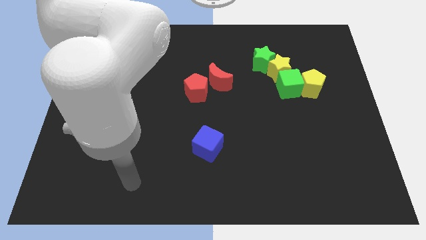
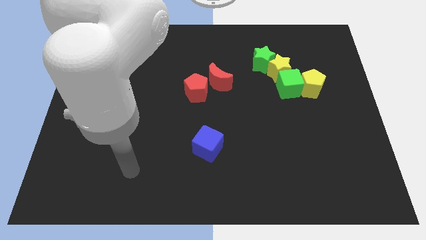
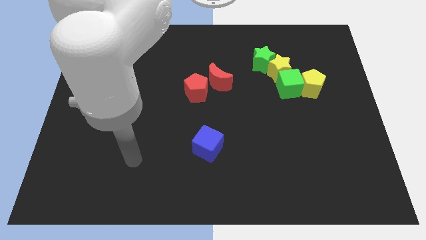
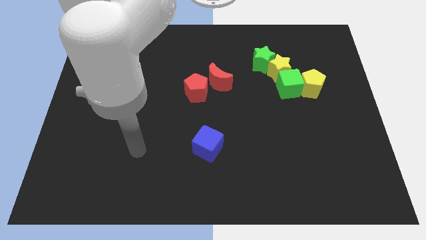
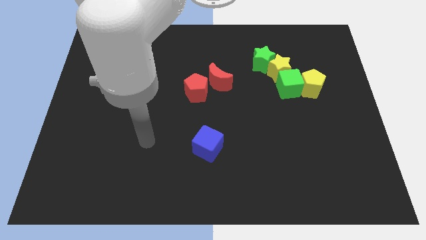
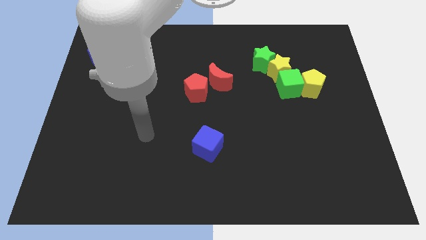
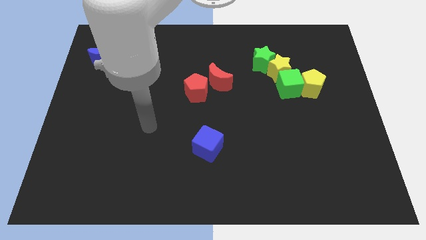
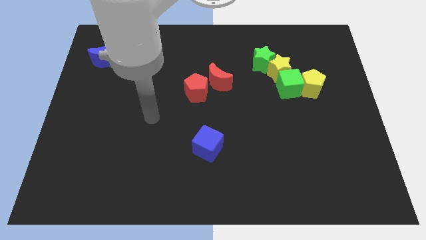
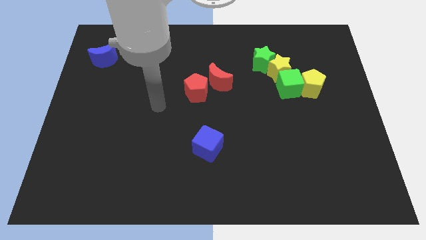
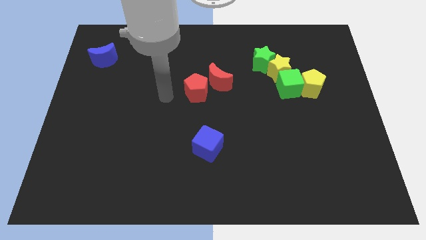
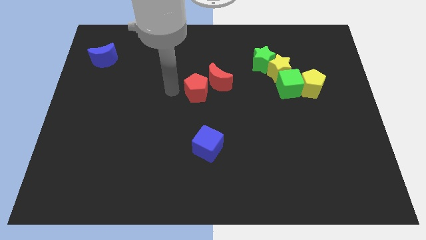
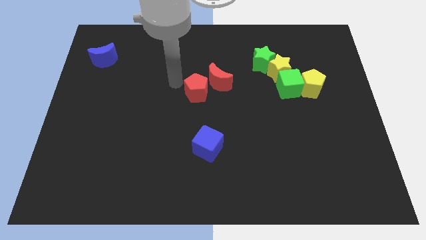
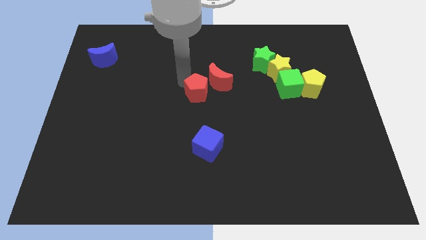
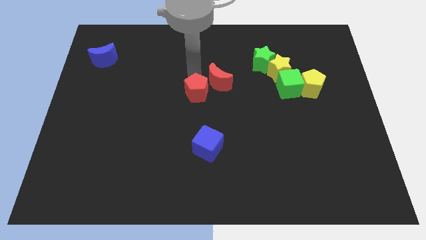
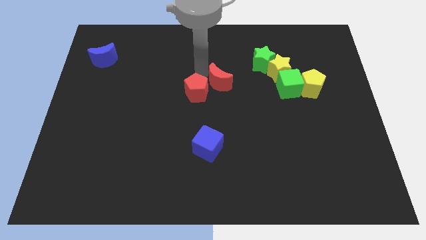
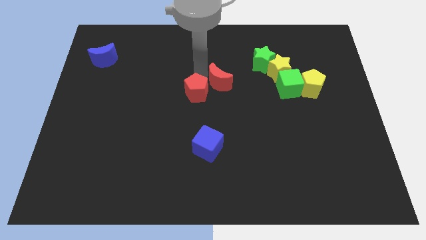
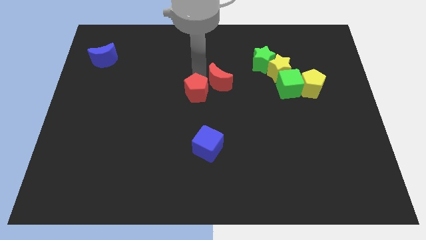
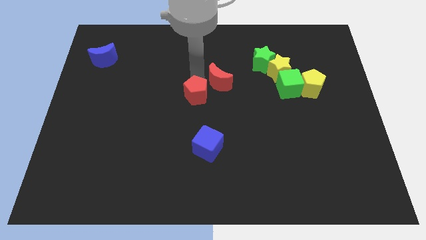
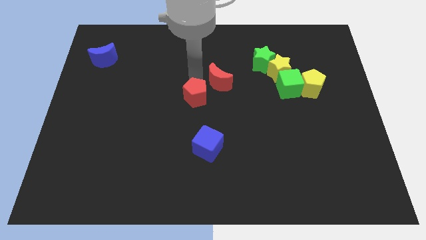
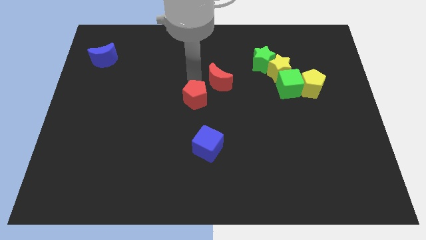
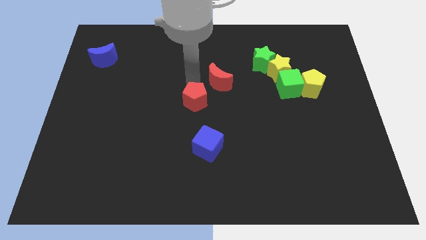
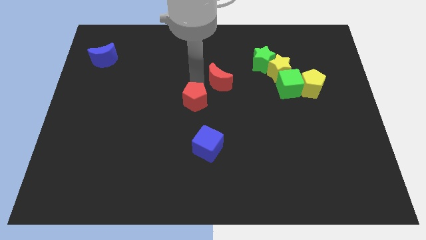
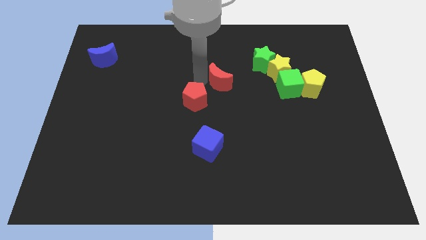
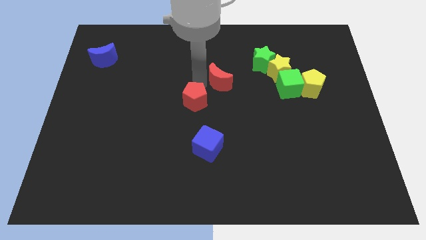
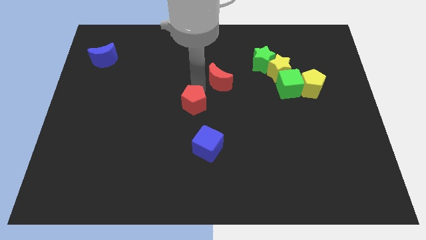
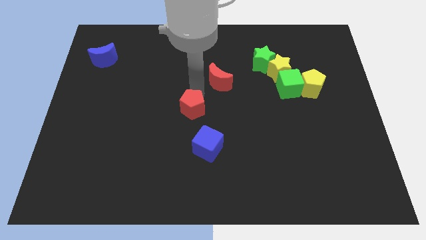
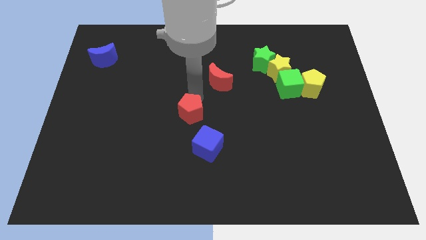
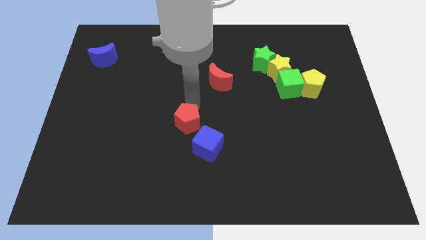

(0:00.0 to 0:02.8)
slightly push the red pentagon down

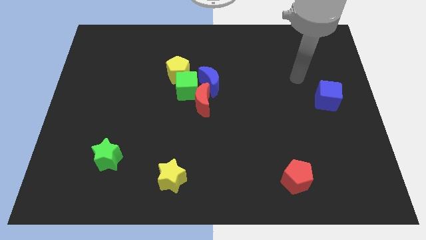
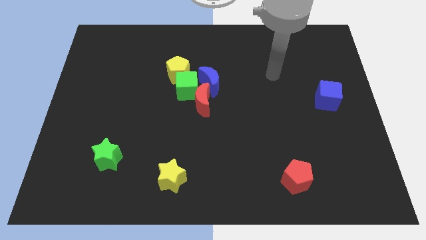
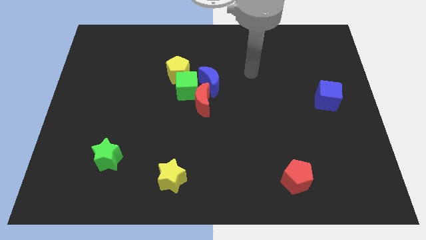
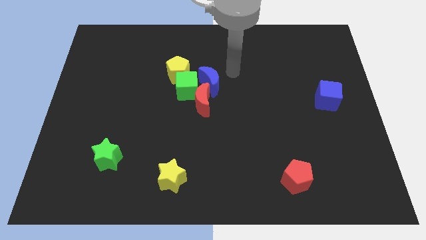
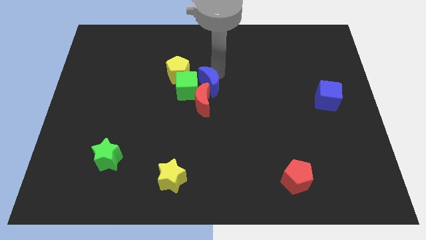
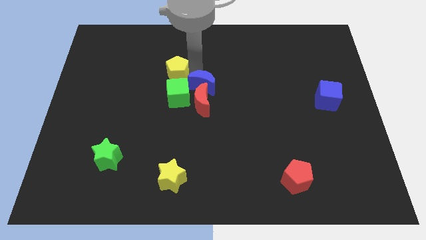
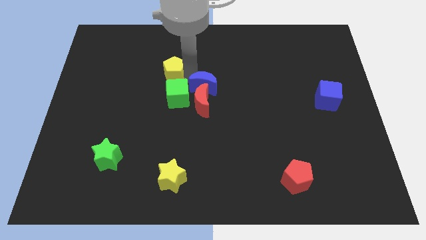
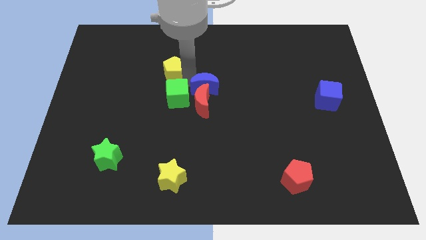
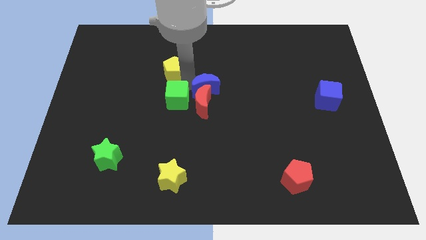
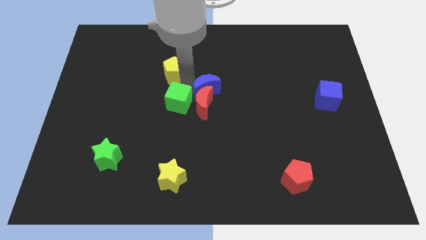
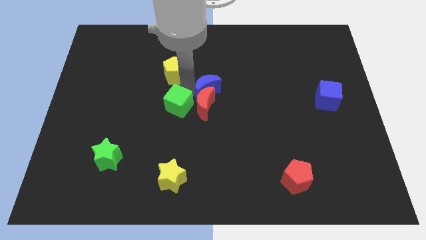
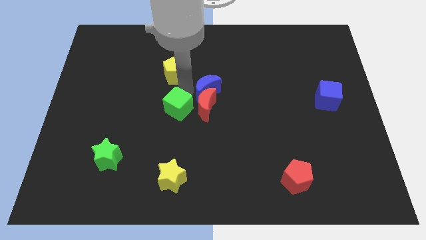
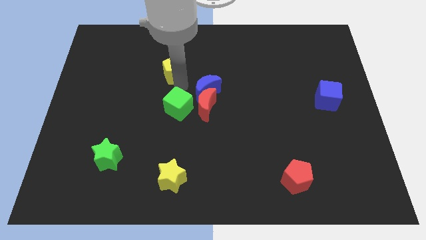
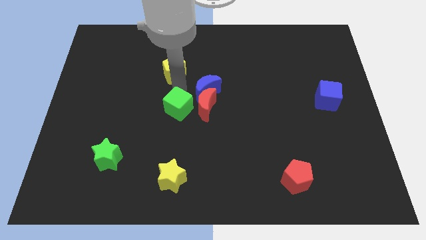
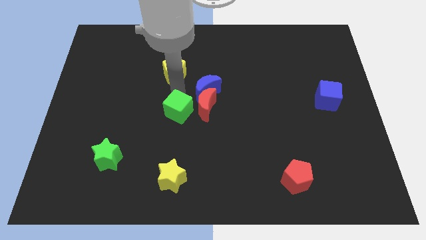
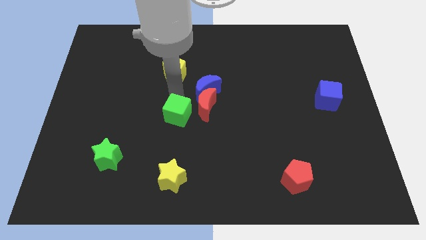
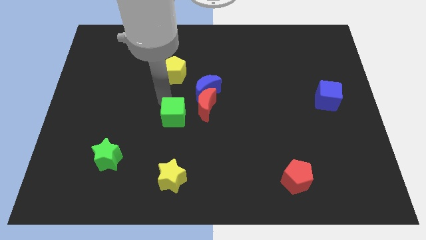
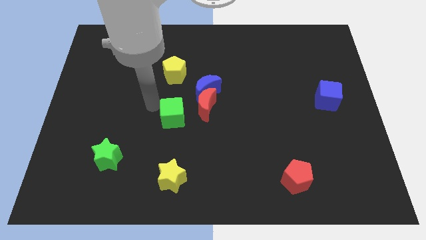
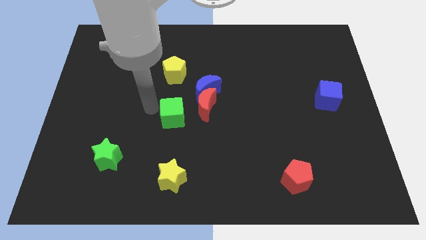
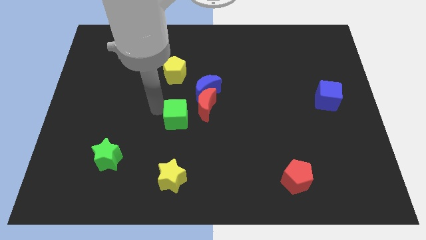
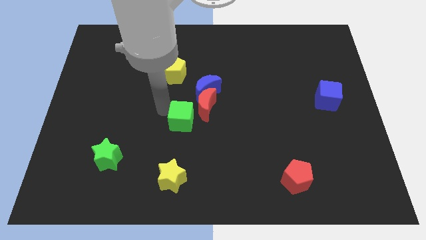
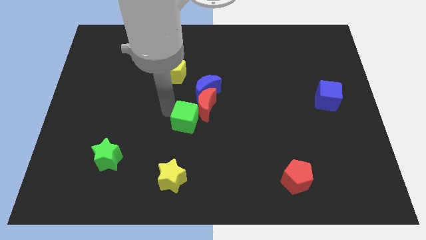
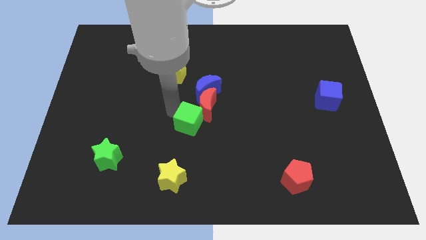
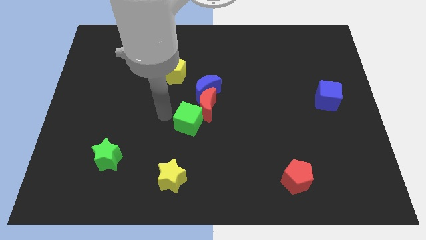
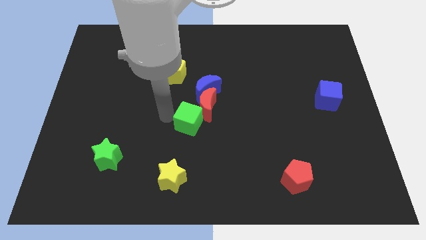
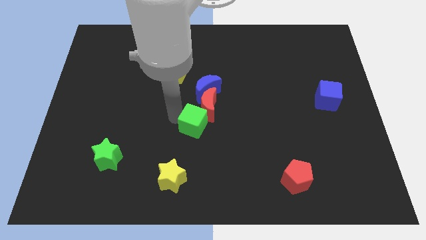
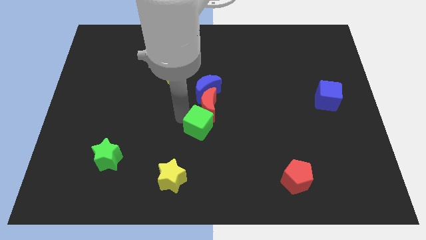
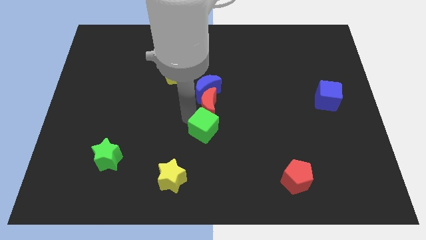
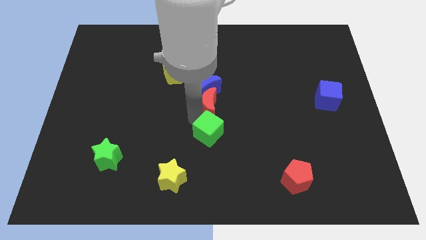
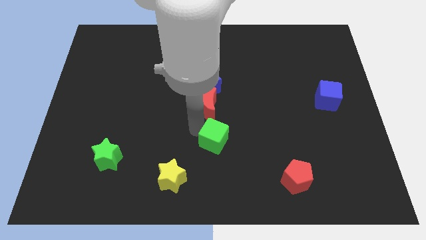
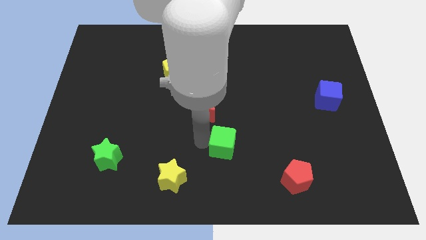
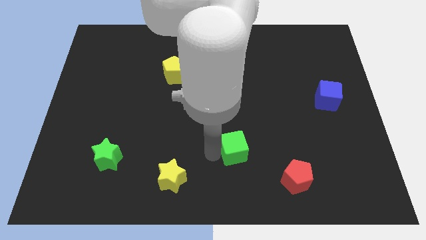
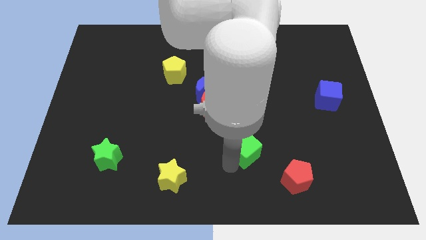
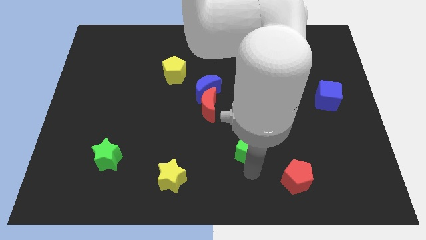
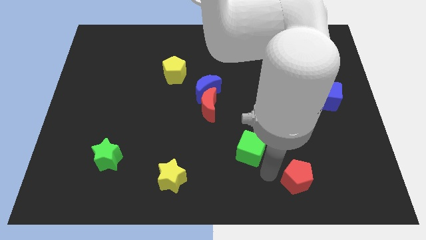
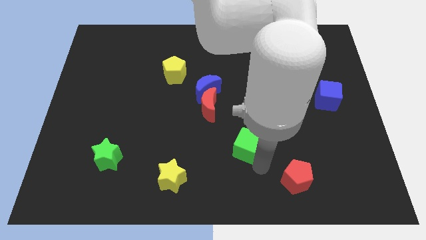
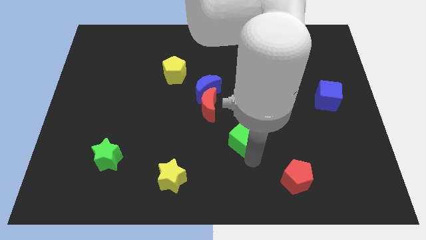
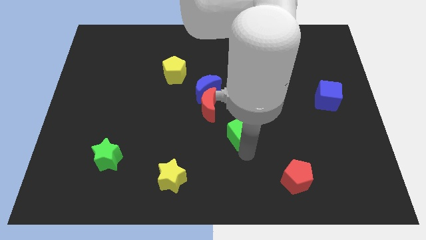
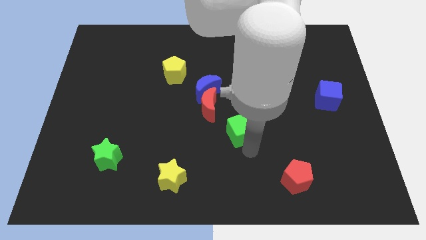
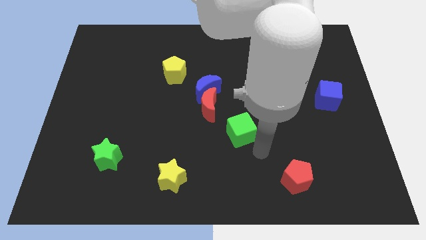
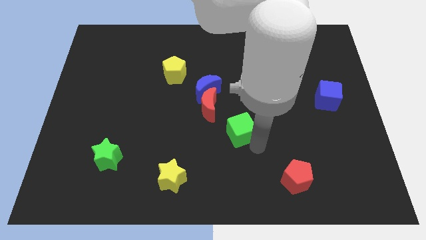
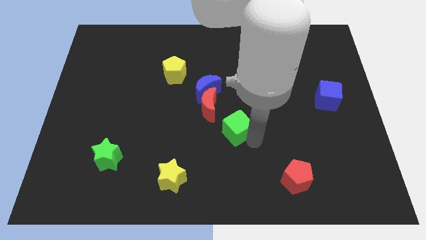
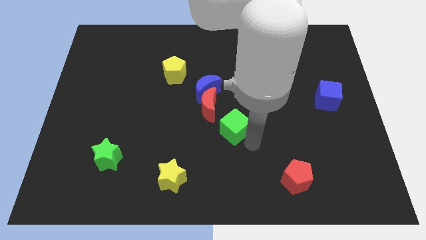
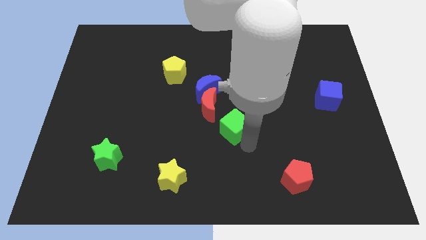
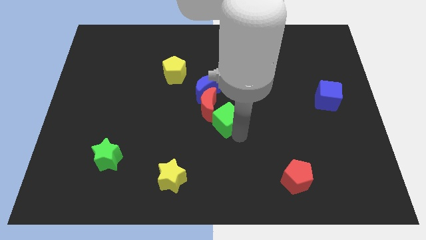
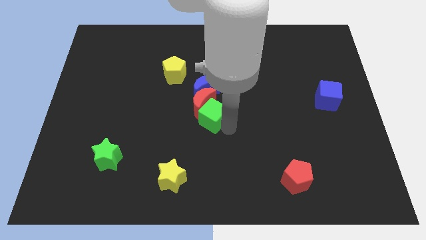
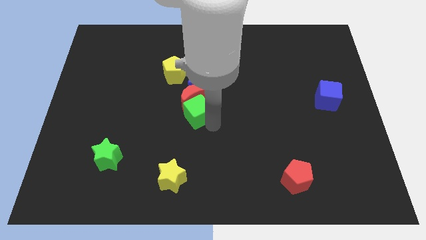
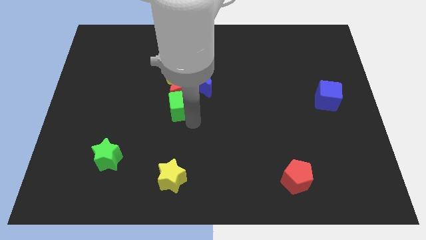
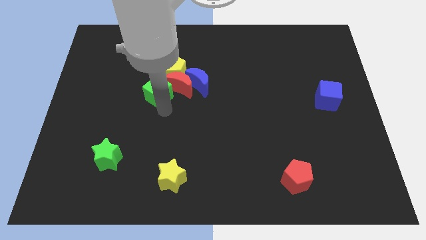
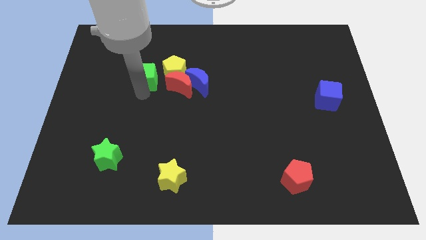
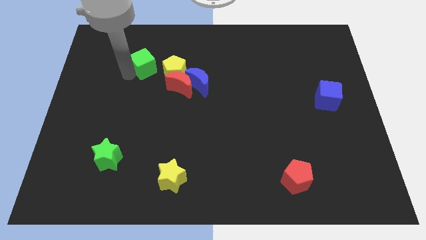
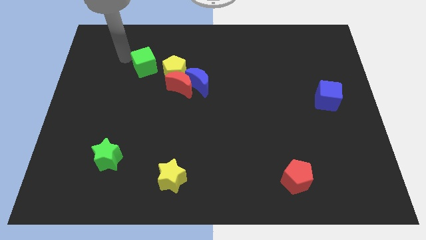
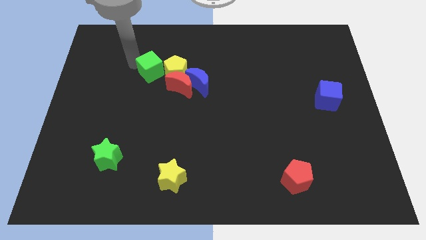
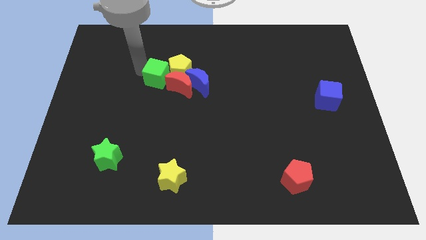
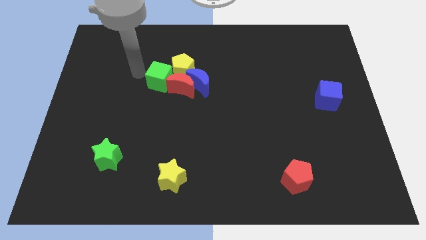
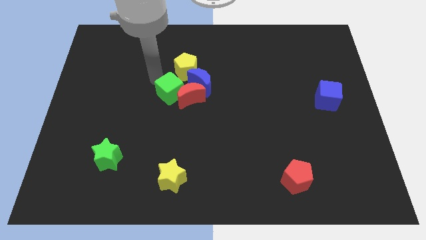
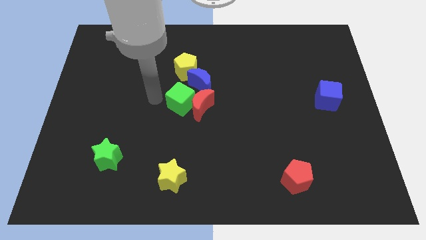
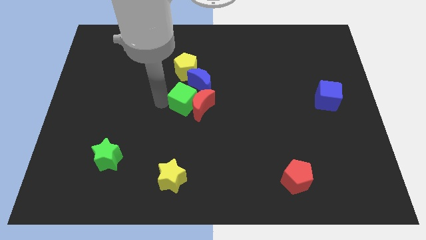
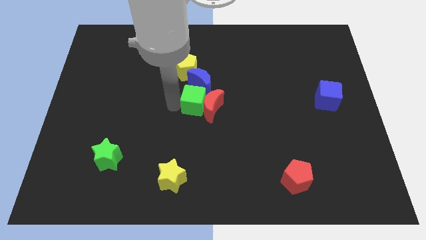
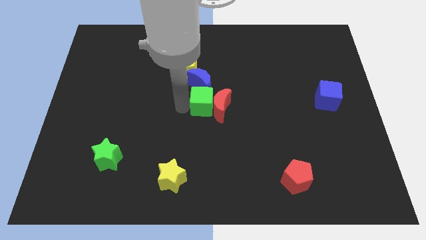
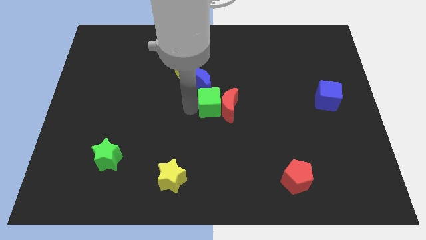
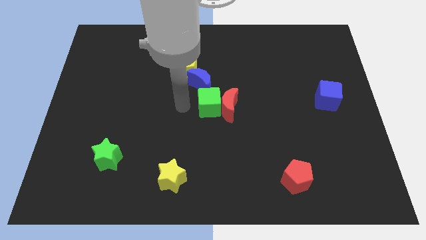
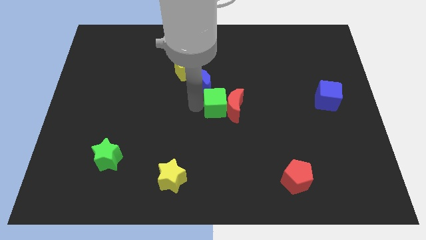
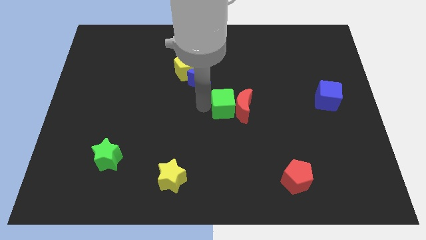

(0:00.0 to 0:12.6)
move the green cube right slightly
